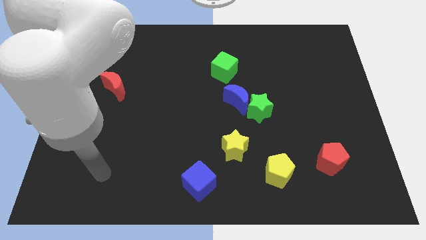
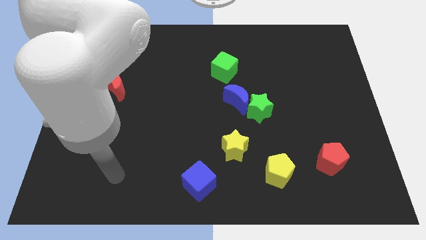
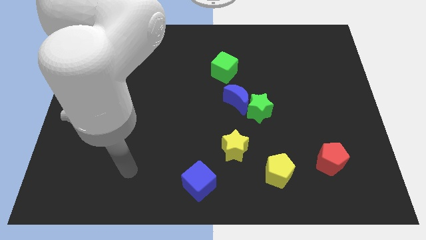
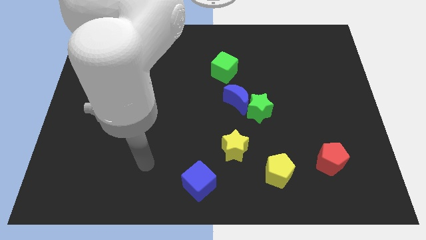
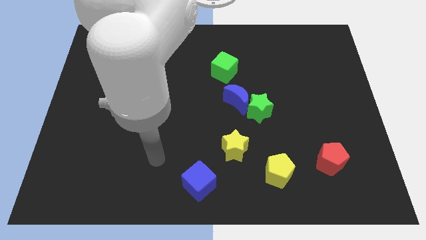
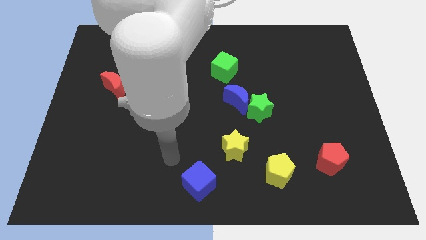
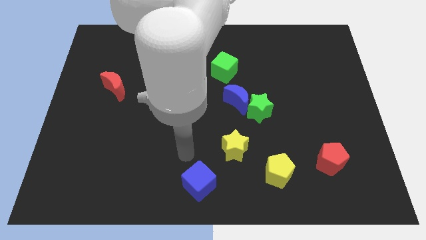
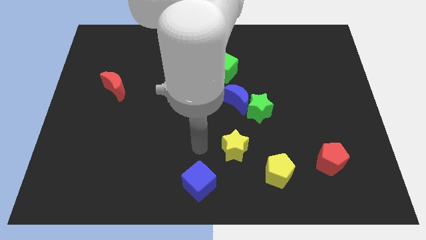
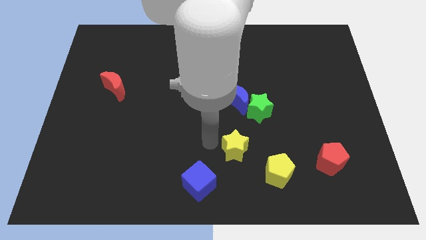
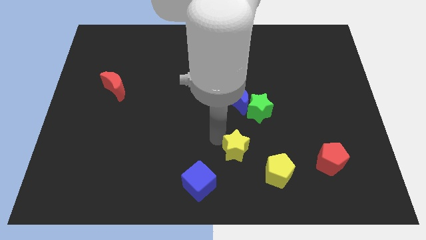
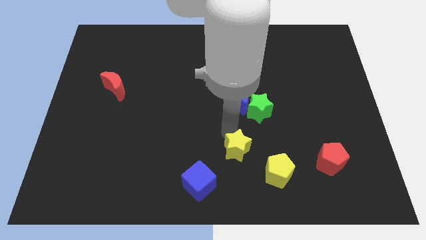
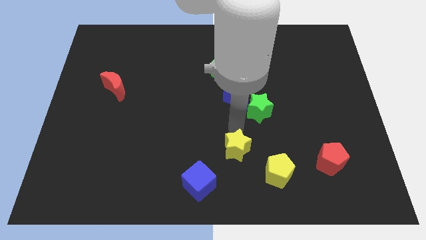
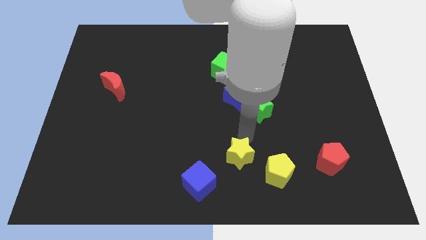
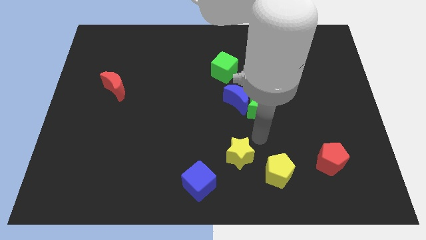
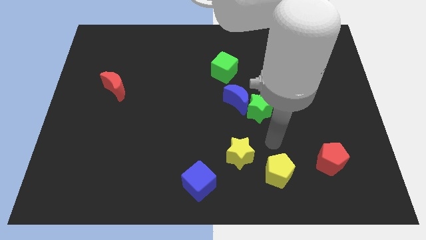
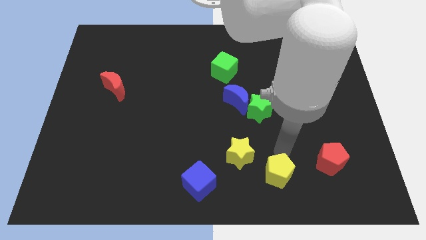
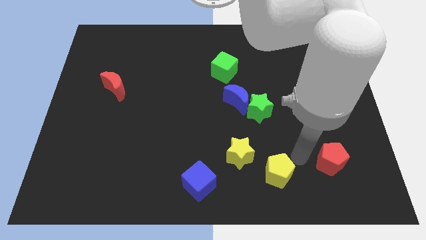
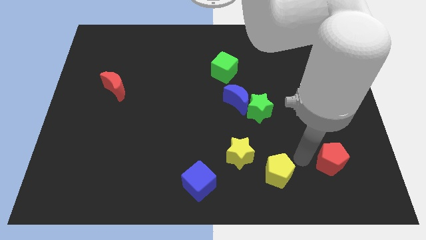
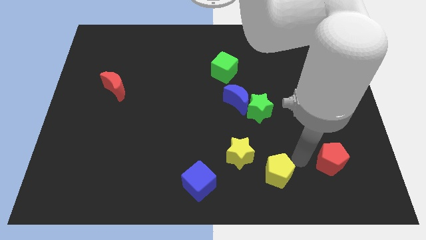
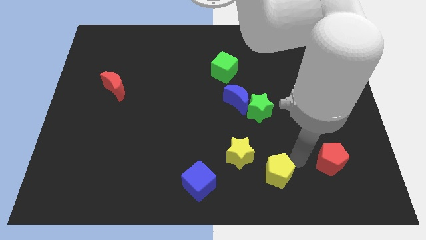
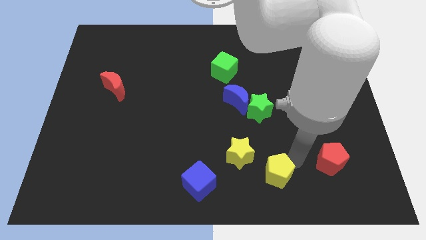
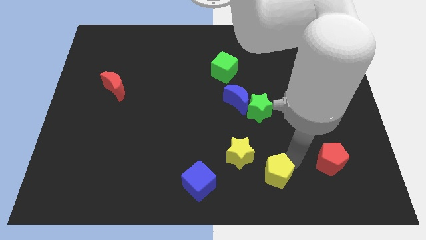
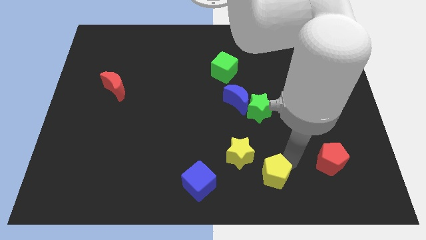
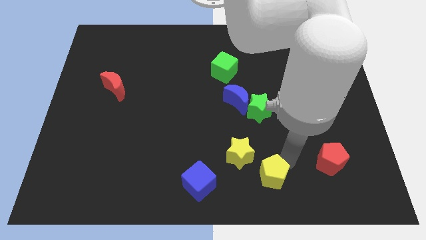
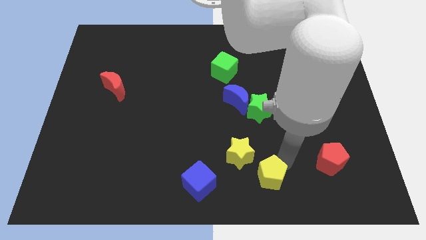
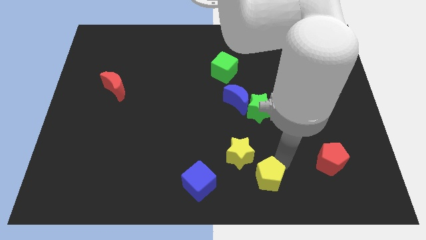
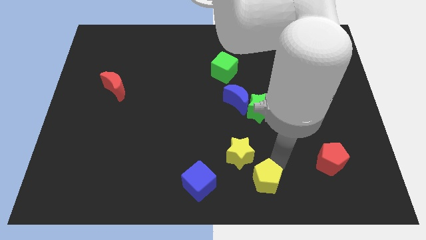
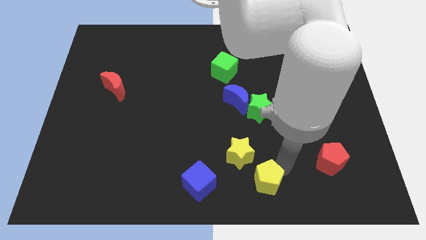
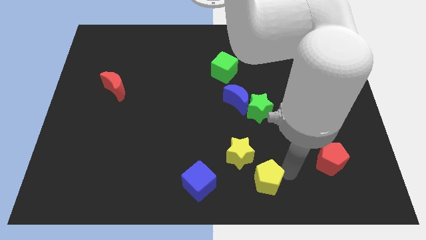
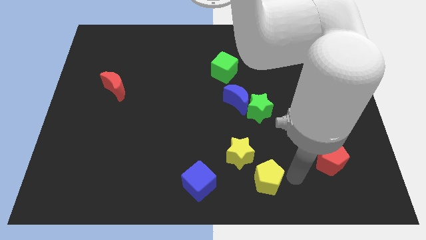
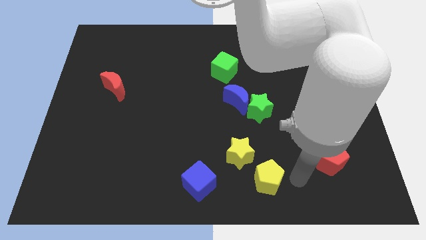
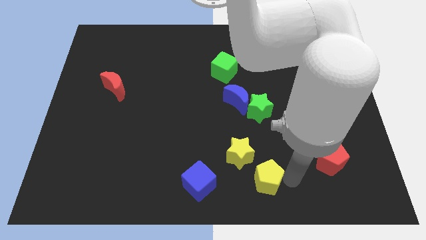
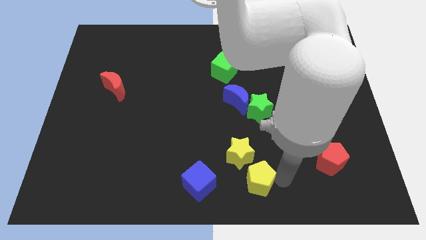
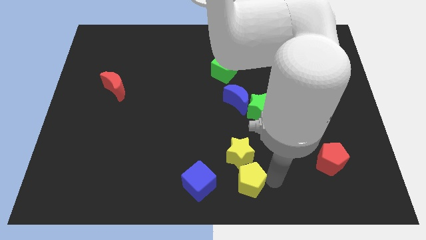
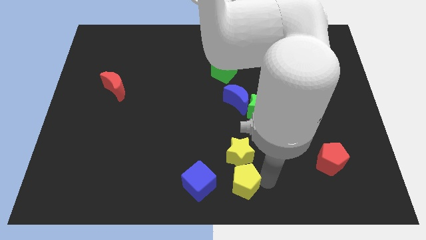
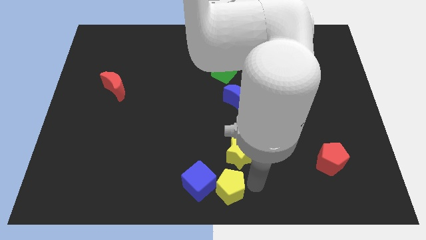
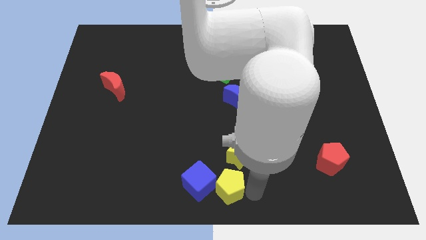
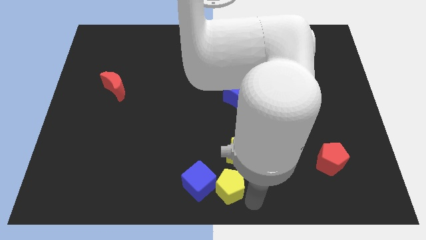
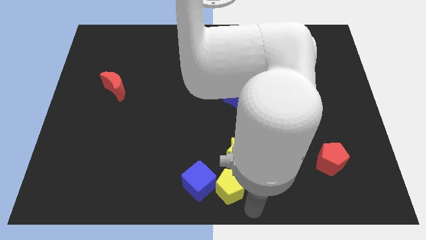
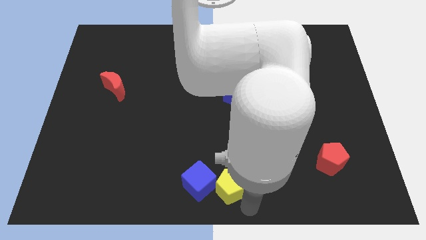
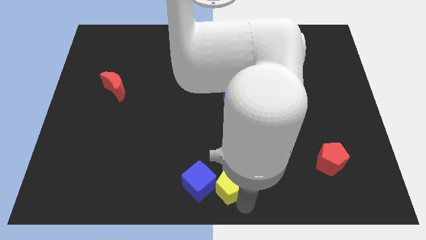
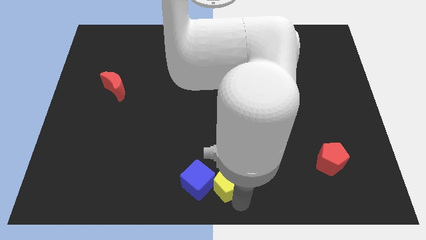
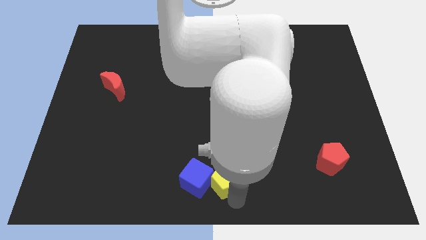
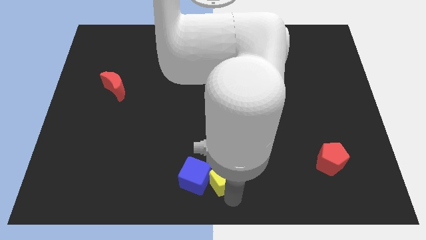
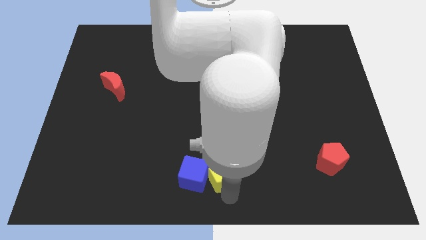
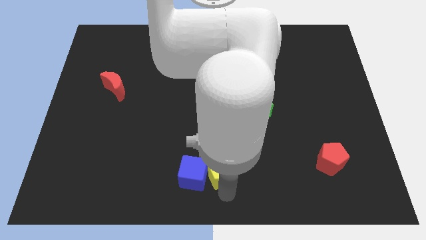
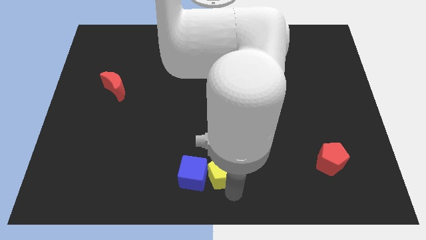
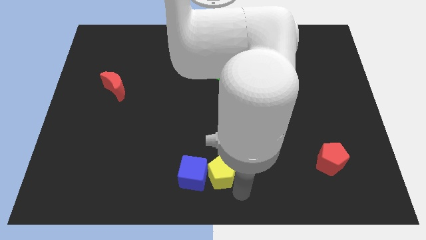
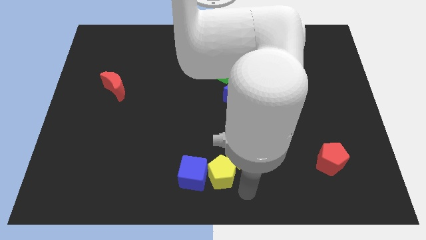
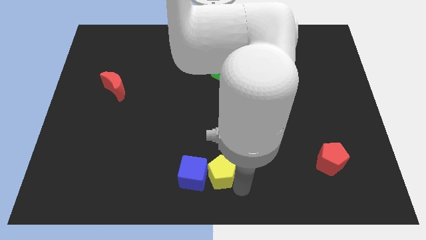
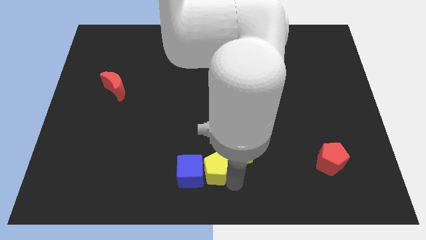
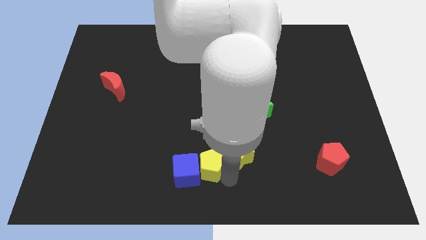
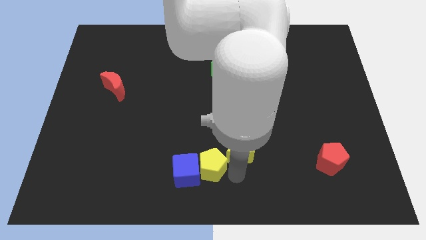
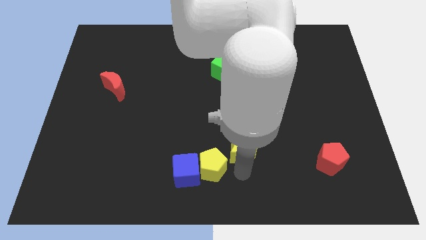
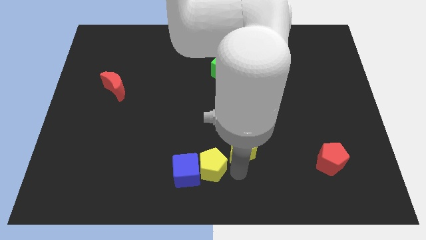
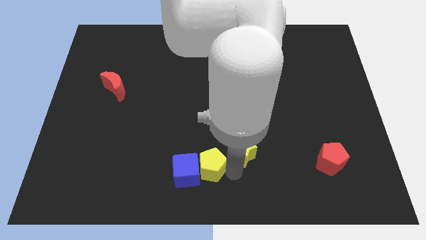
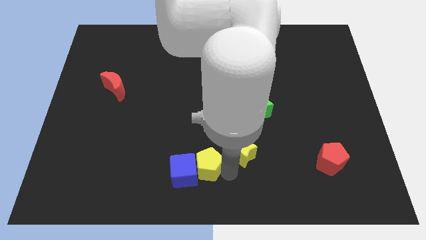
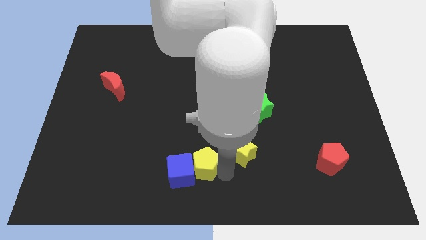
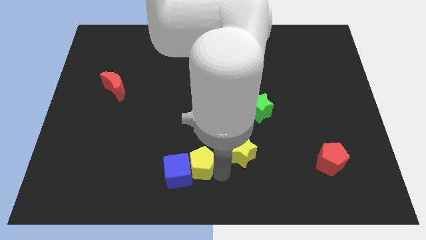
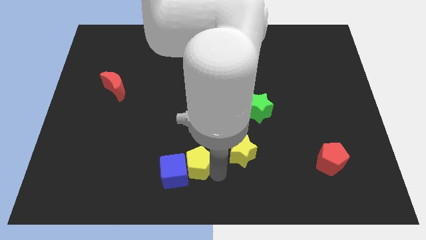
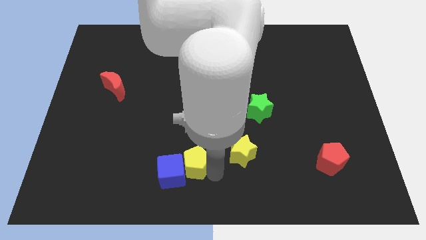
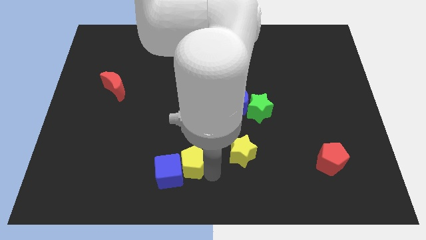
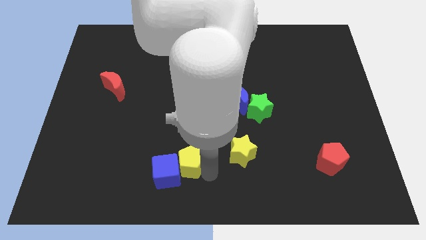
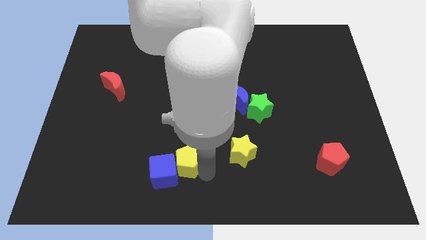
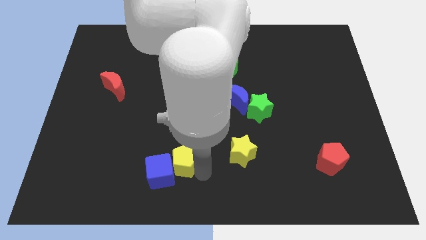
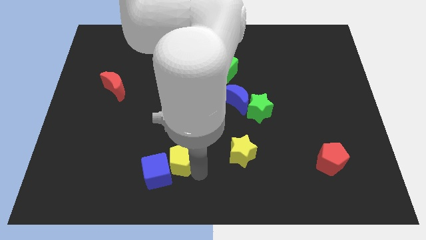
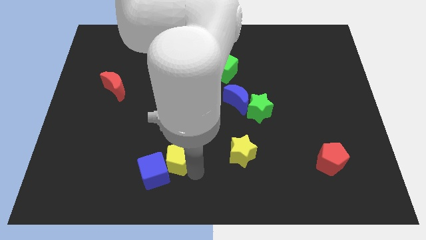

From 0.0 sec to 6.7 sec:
slide the yellow pentagon left

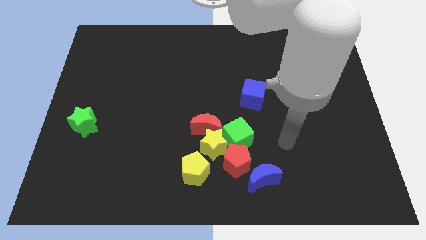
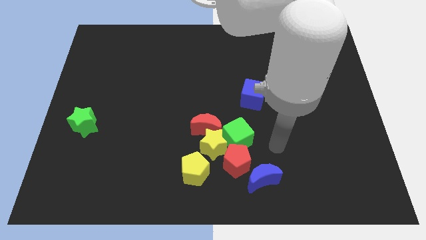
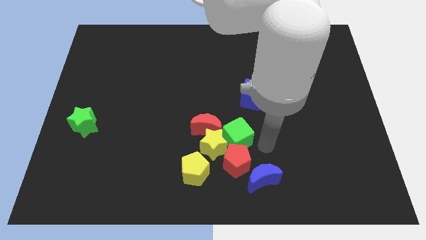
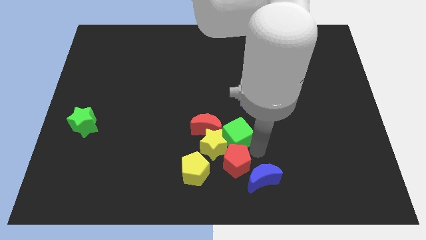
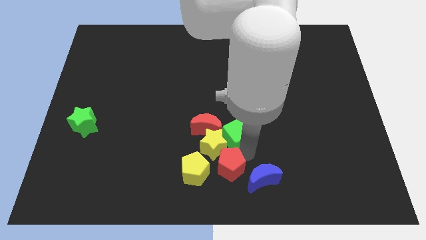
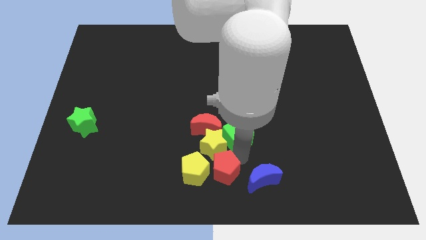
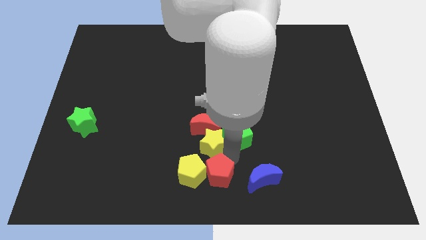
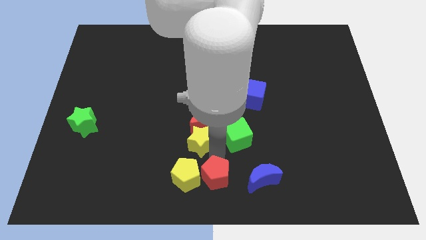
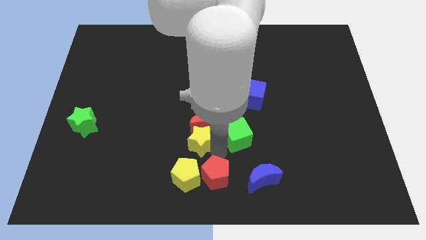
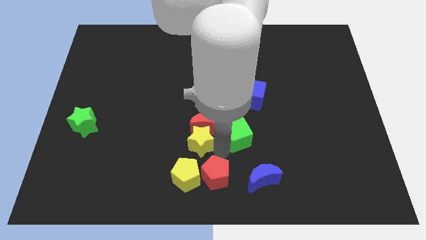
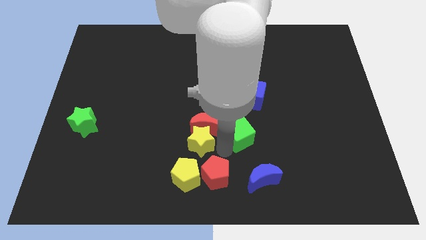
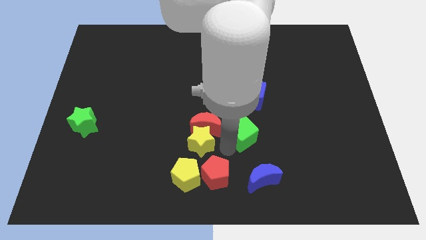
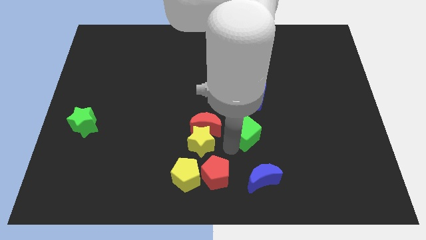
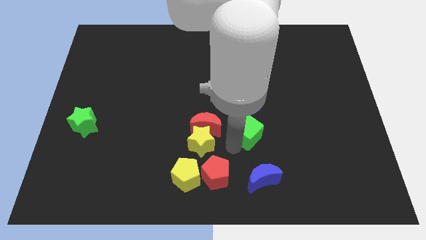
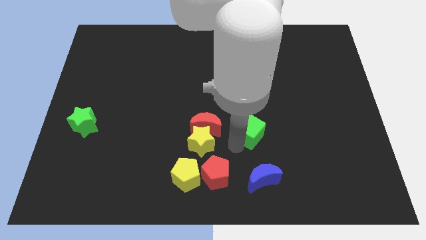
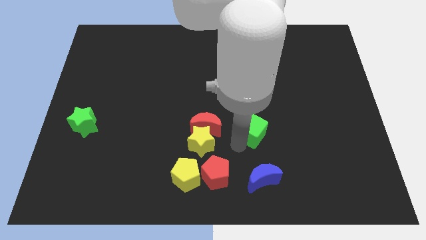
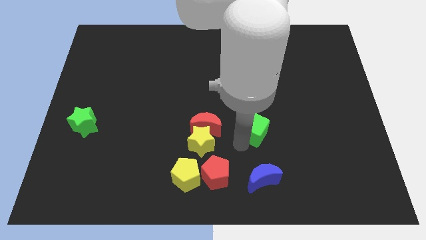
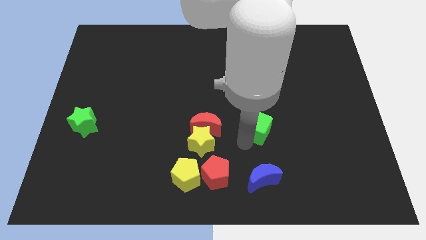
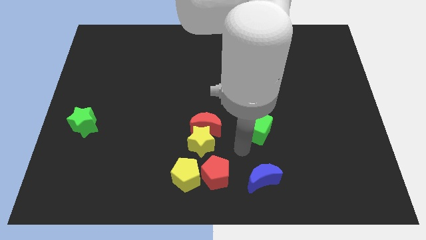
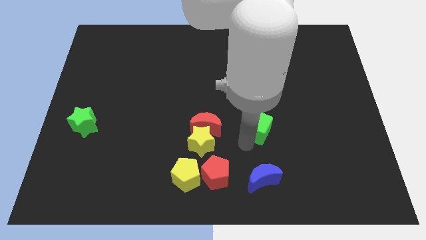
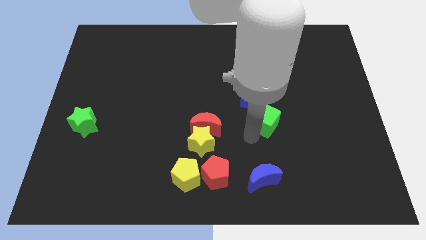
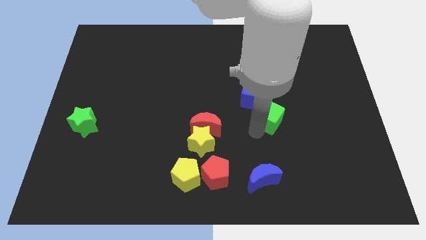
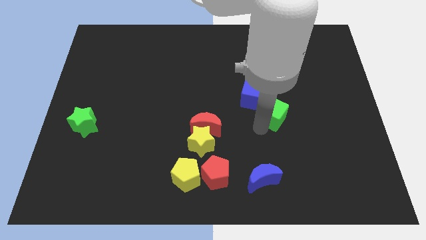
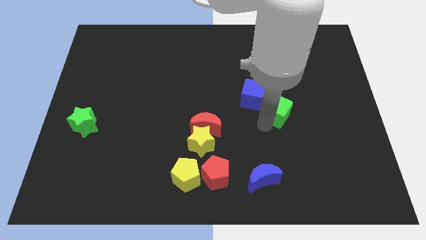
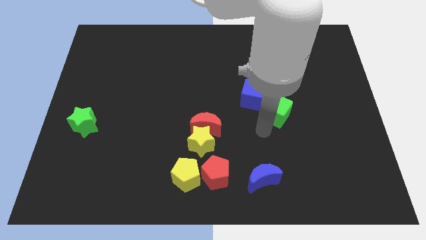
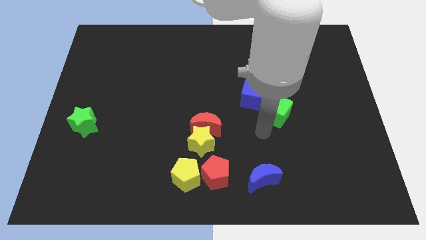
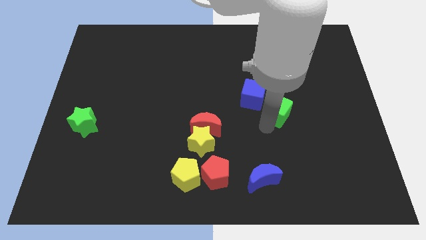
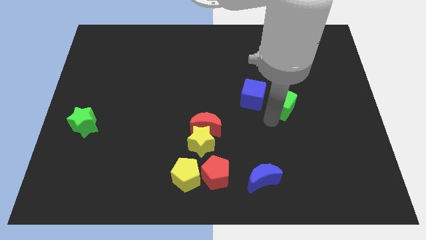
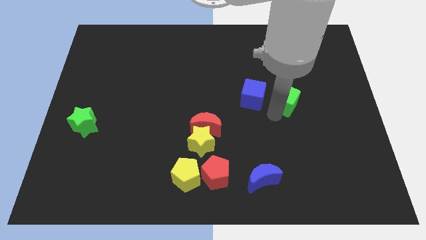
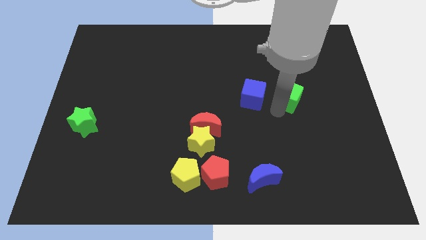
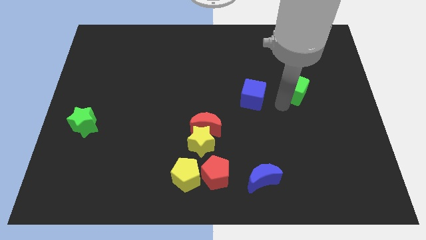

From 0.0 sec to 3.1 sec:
move the green cube up and to the right
